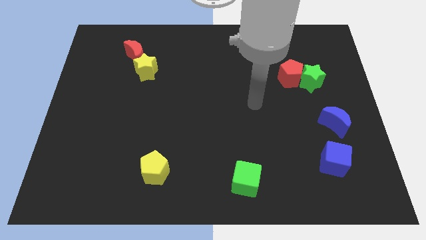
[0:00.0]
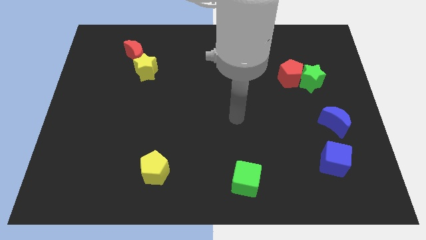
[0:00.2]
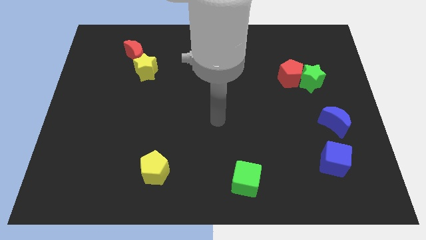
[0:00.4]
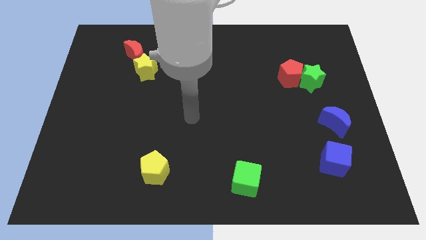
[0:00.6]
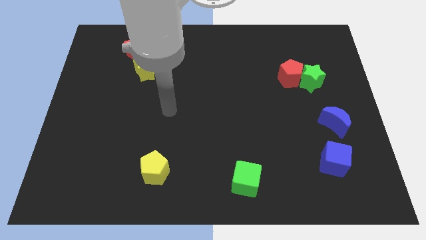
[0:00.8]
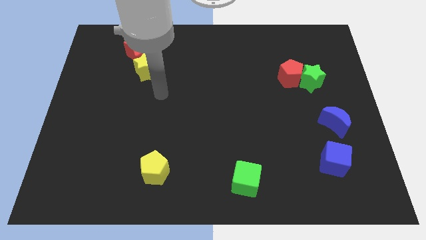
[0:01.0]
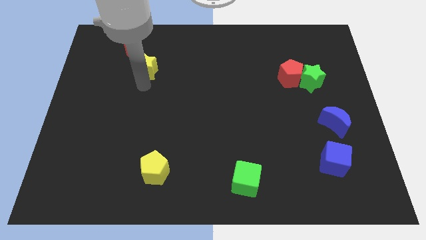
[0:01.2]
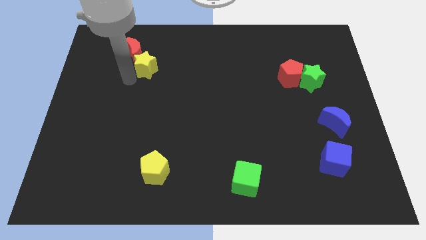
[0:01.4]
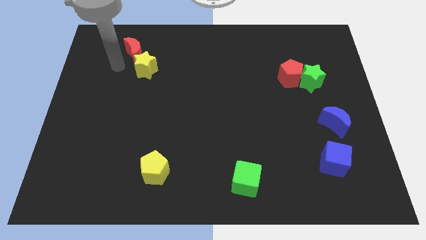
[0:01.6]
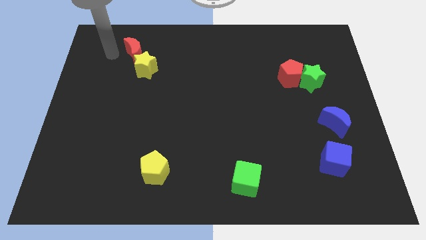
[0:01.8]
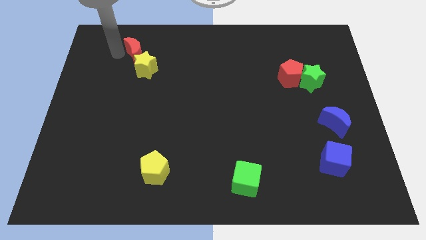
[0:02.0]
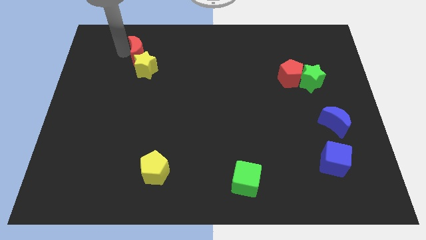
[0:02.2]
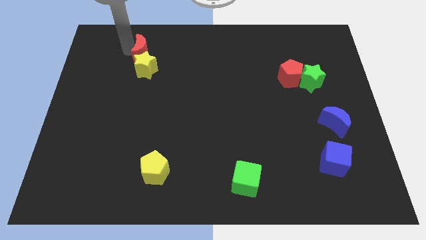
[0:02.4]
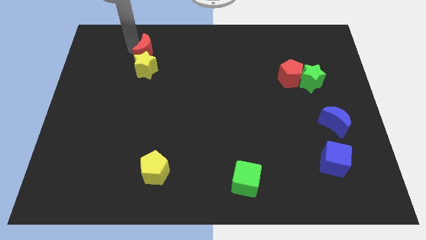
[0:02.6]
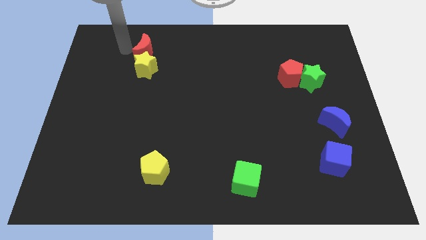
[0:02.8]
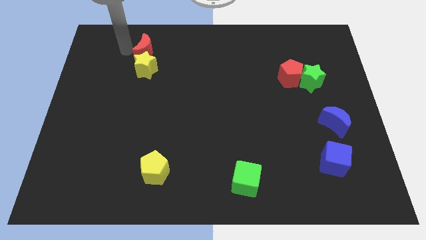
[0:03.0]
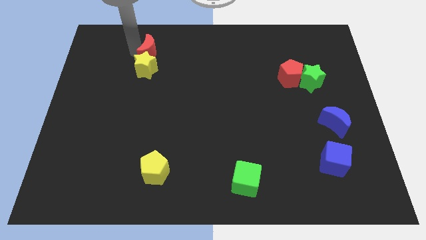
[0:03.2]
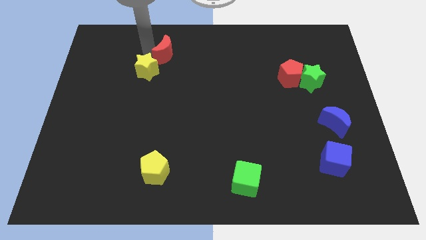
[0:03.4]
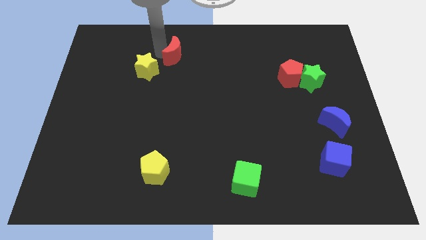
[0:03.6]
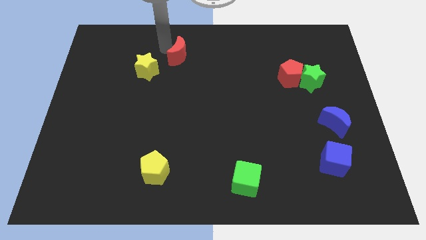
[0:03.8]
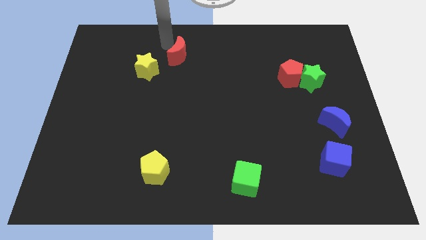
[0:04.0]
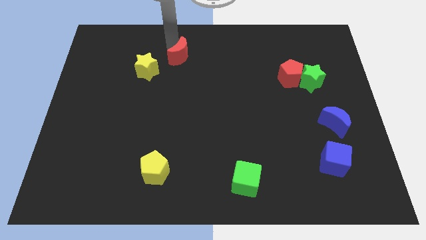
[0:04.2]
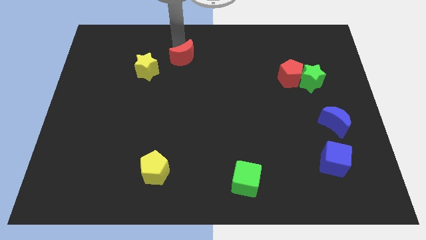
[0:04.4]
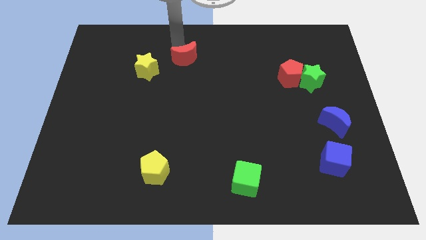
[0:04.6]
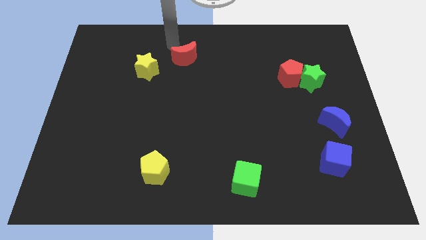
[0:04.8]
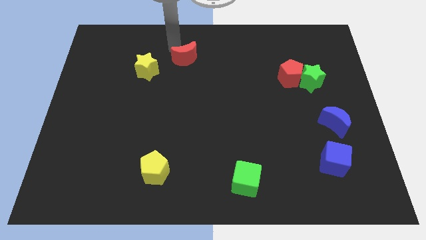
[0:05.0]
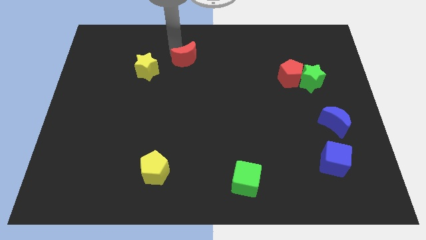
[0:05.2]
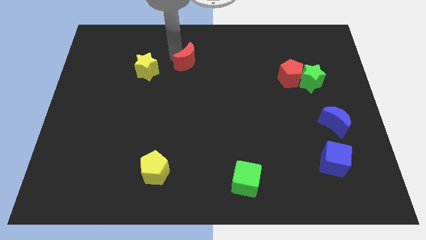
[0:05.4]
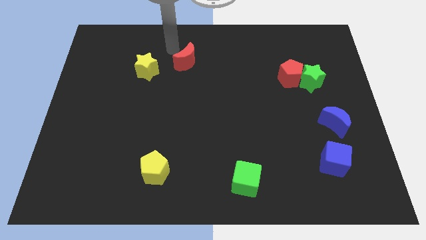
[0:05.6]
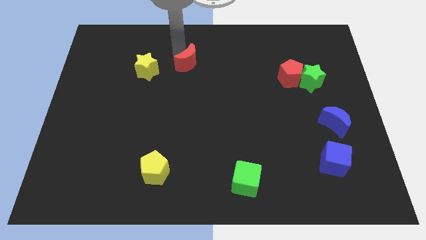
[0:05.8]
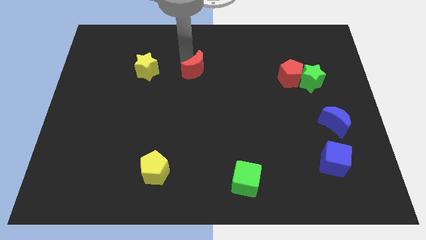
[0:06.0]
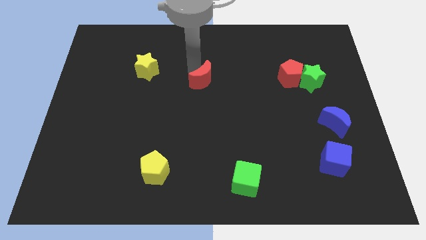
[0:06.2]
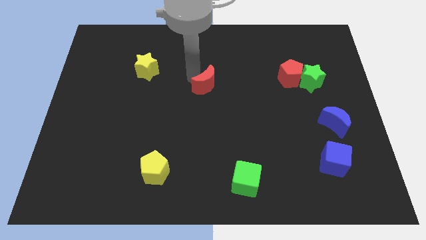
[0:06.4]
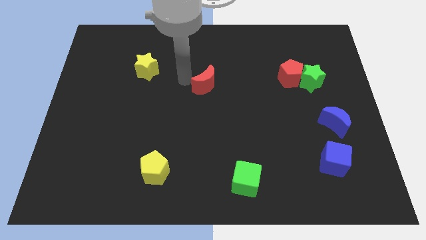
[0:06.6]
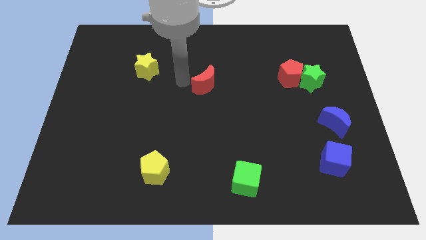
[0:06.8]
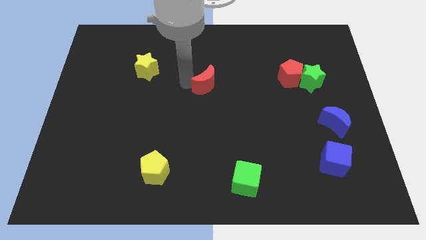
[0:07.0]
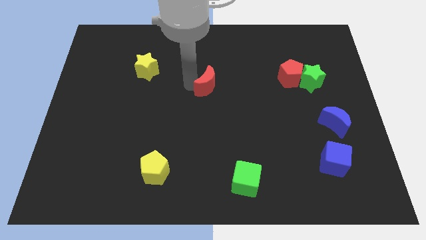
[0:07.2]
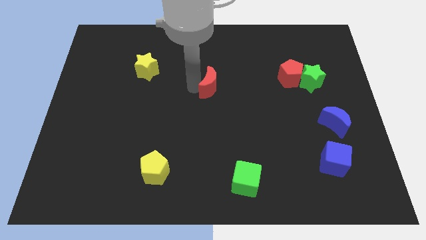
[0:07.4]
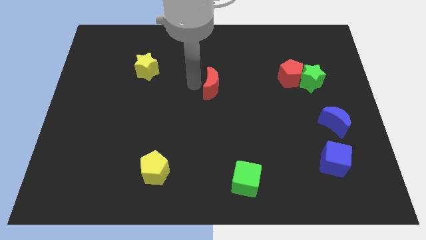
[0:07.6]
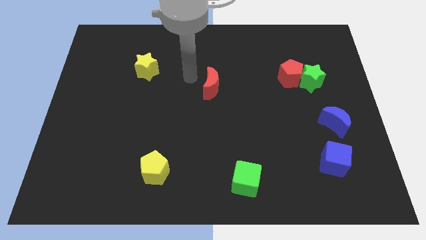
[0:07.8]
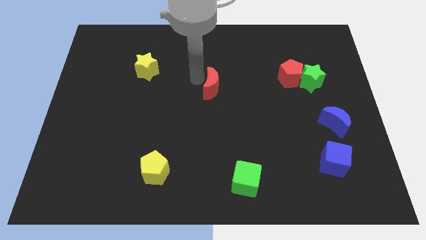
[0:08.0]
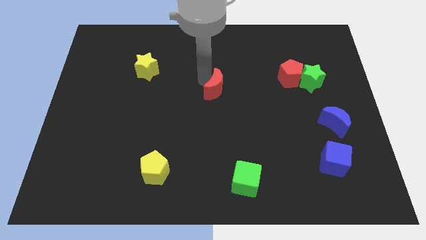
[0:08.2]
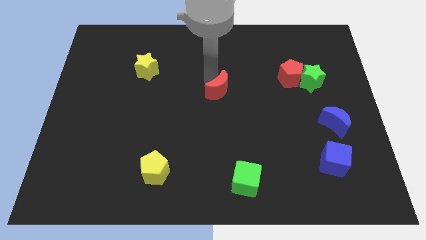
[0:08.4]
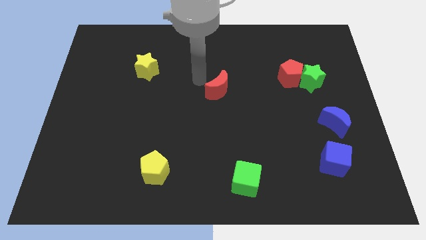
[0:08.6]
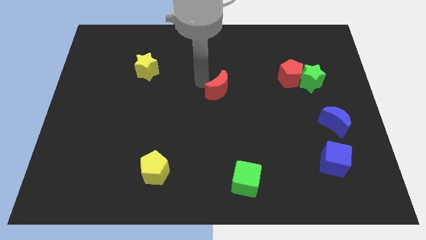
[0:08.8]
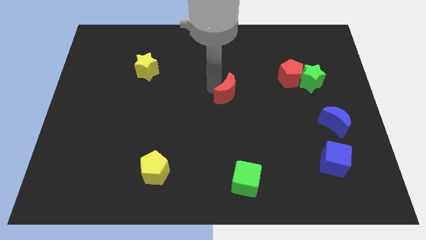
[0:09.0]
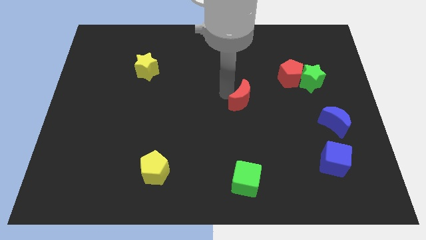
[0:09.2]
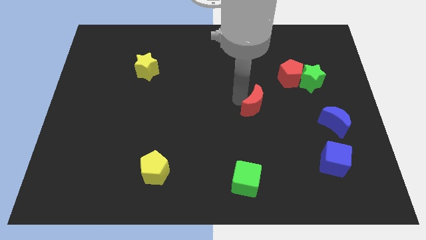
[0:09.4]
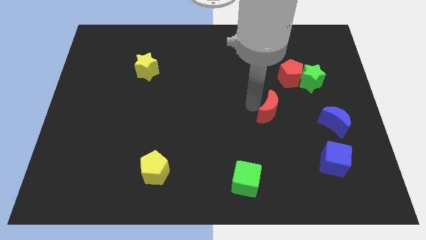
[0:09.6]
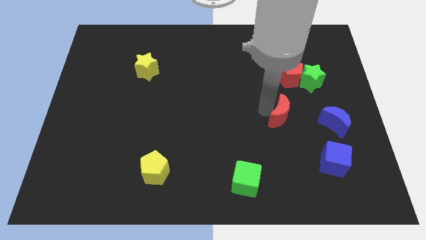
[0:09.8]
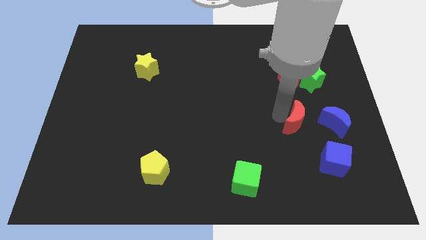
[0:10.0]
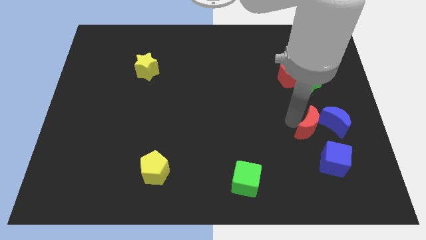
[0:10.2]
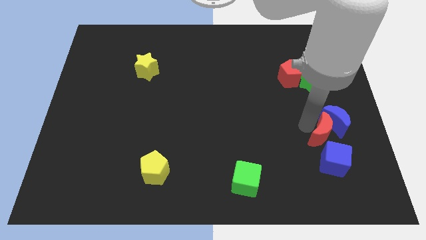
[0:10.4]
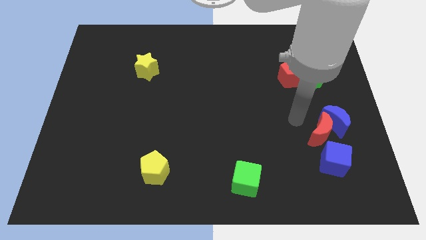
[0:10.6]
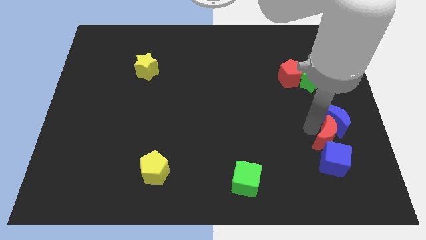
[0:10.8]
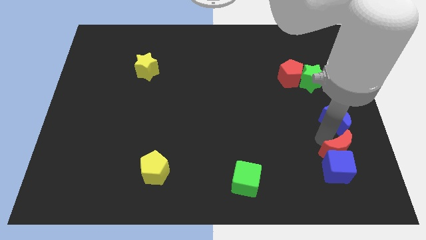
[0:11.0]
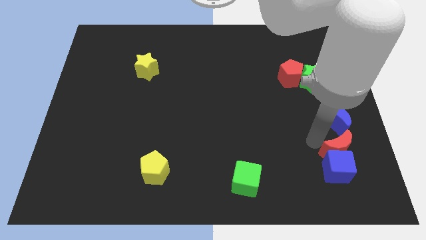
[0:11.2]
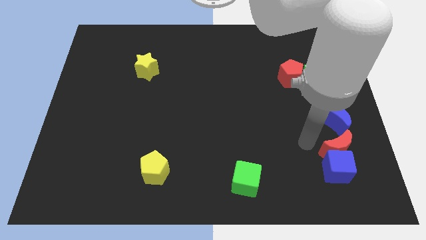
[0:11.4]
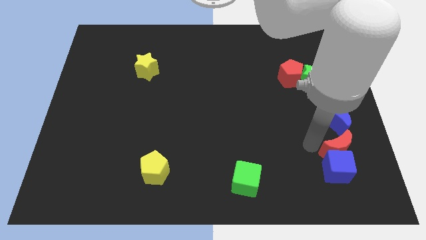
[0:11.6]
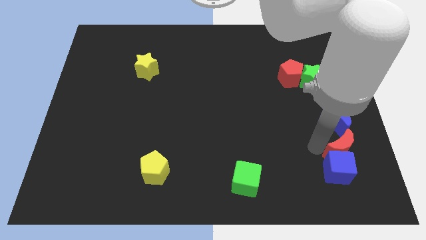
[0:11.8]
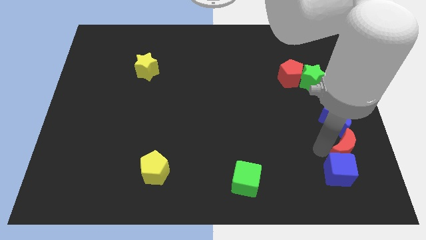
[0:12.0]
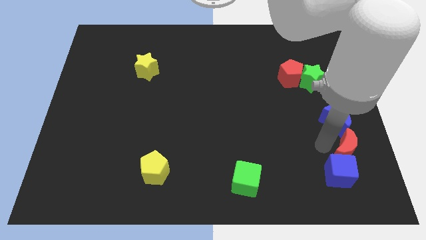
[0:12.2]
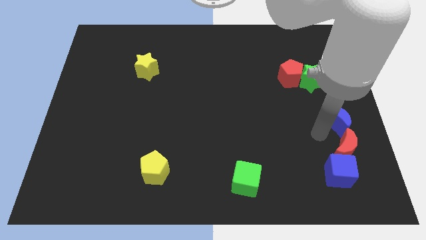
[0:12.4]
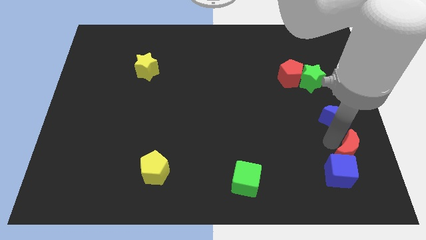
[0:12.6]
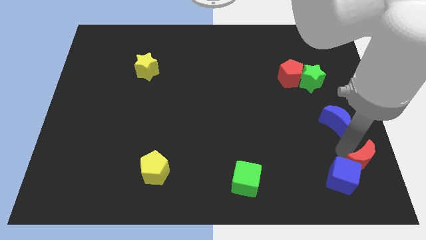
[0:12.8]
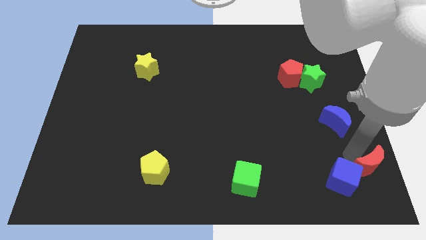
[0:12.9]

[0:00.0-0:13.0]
put the red moon to the lower right corner
